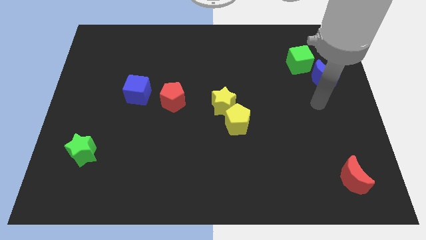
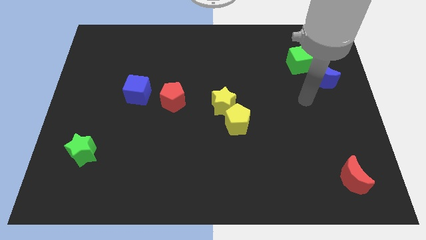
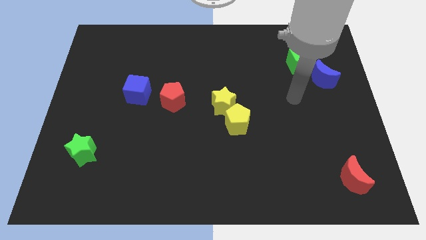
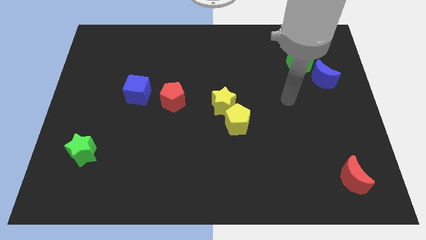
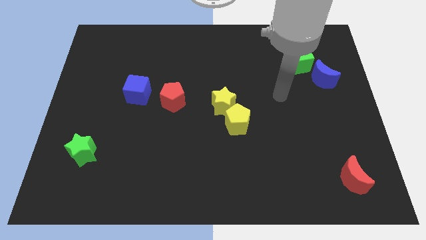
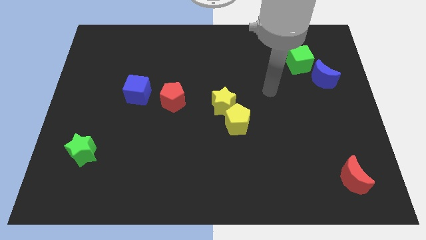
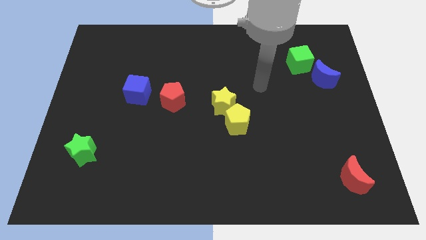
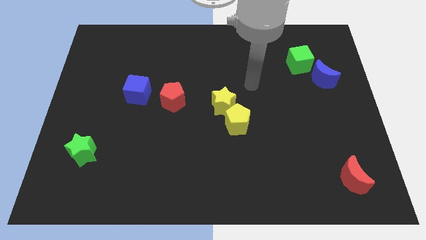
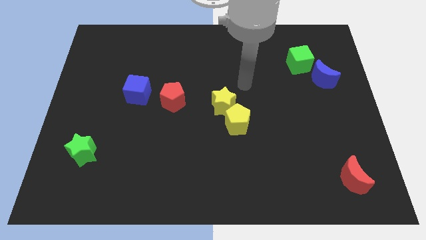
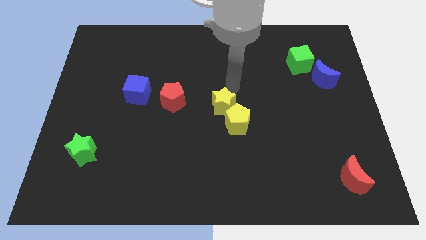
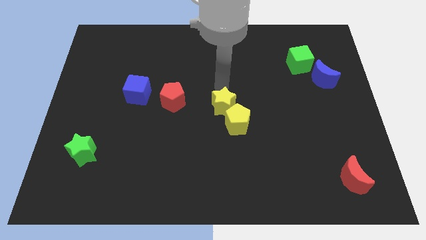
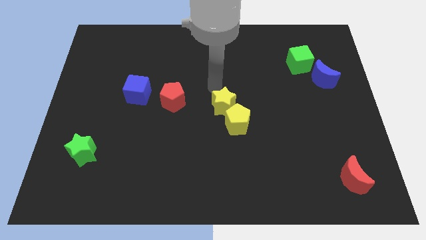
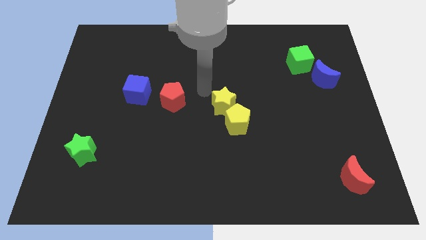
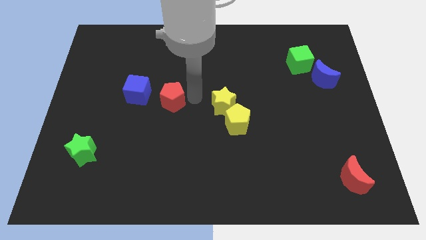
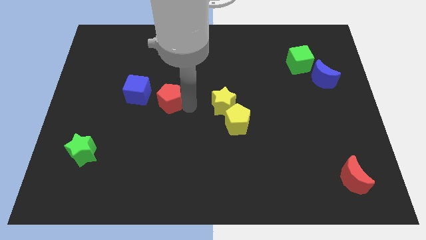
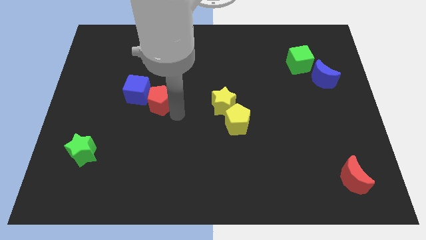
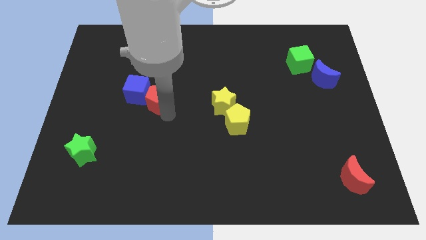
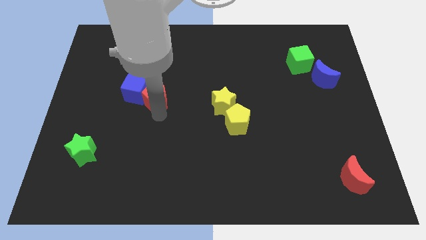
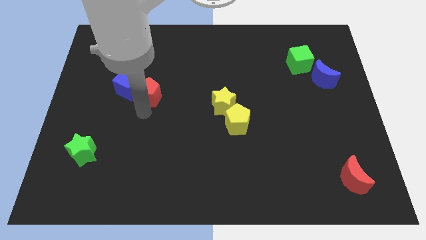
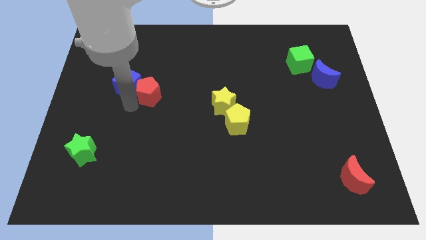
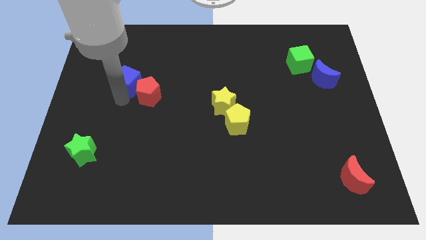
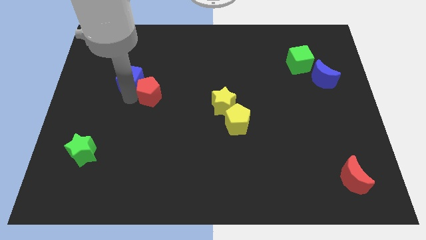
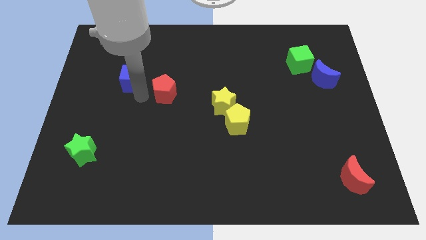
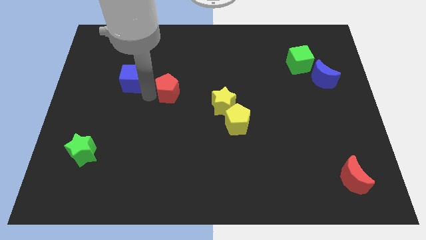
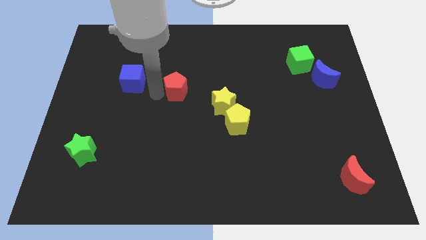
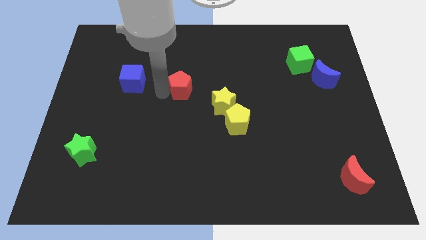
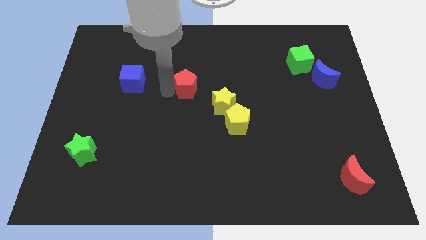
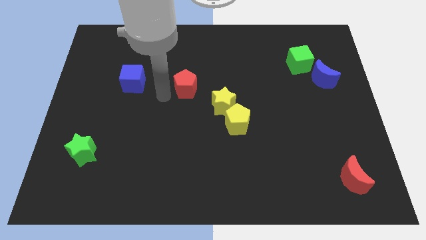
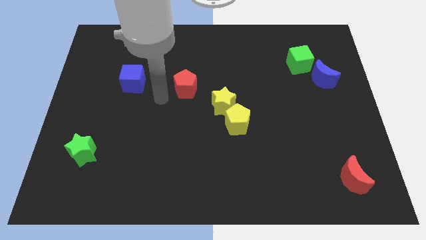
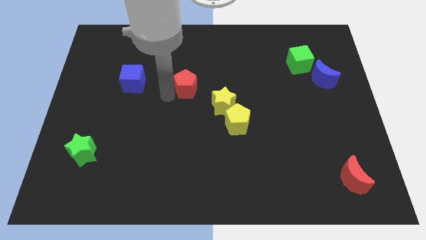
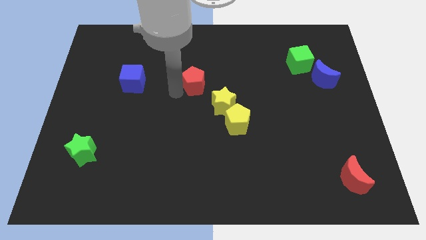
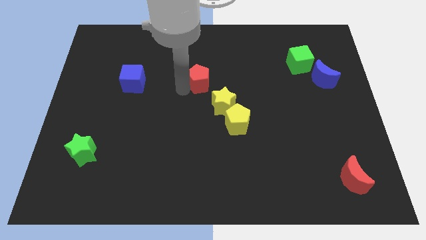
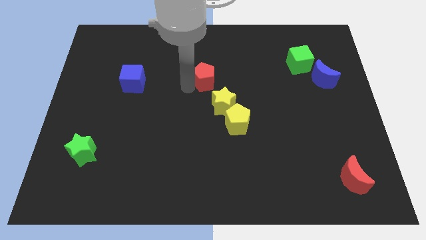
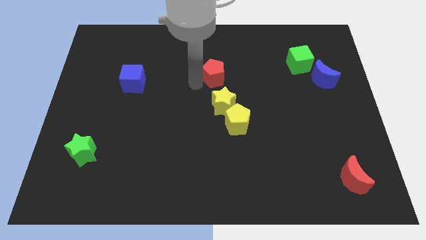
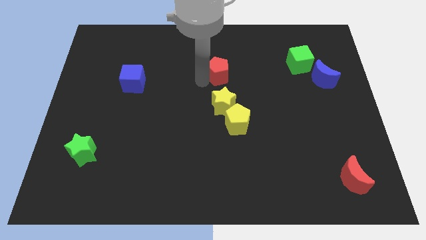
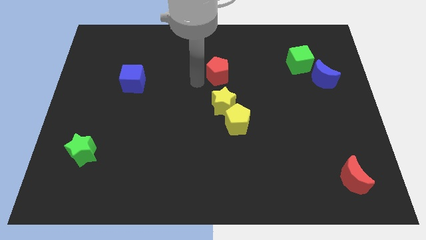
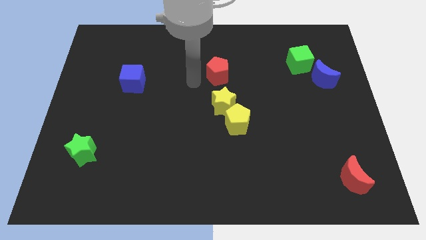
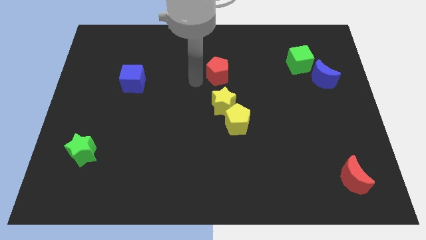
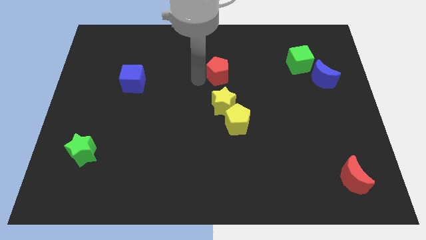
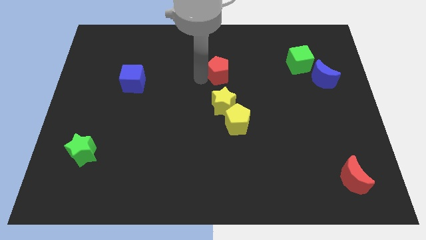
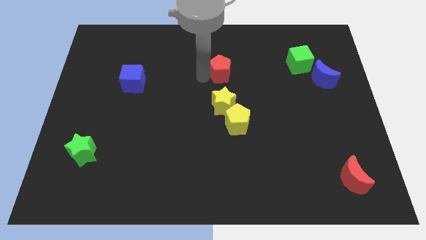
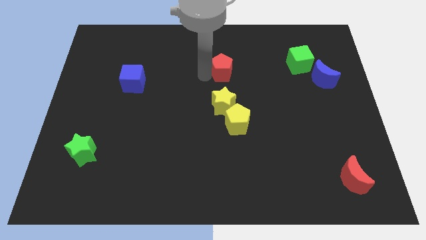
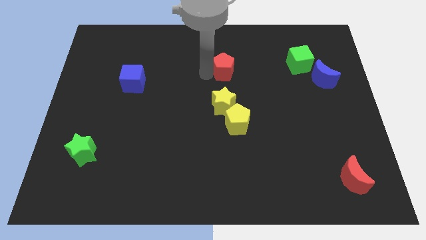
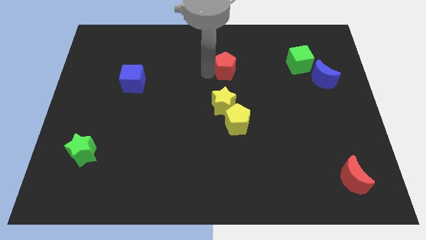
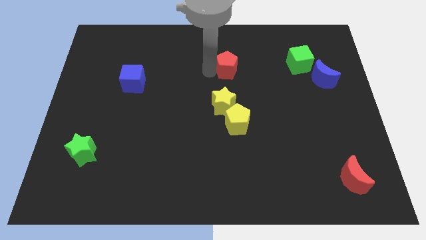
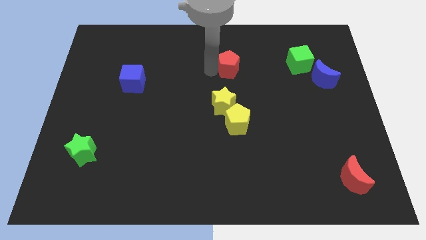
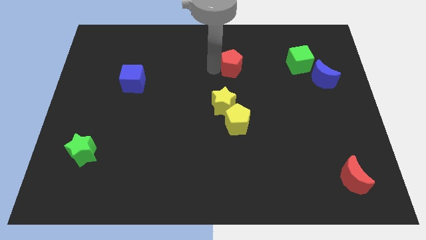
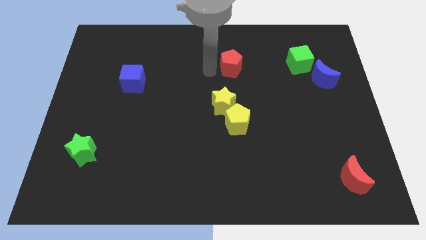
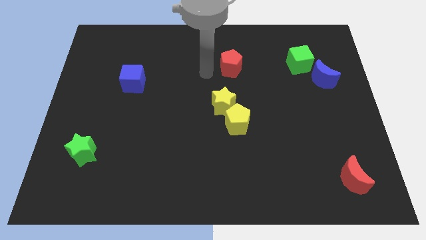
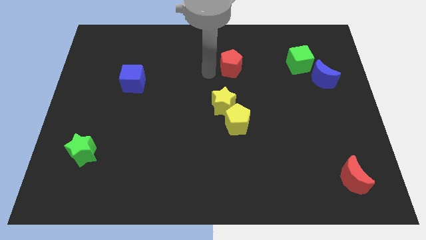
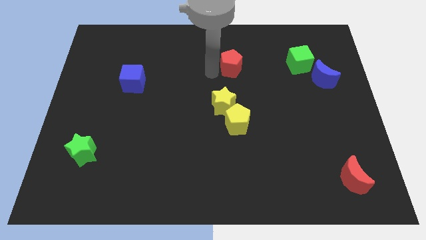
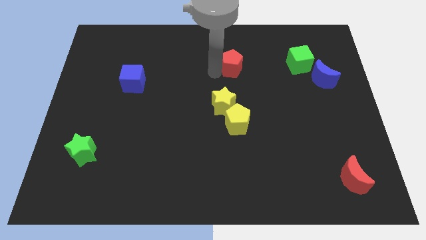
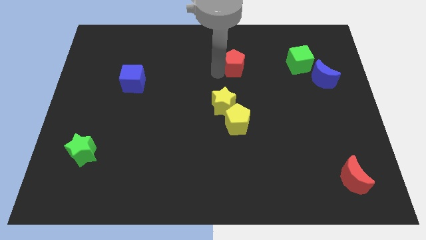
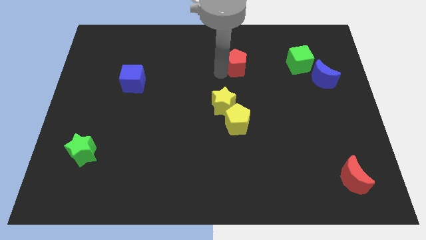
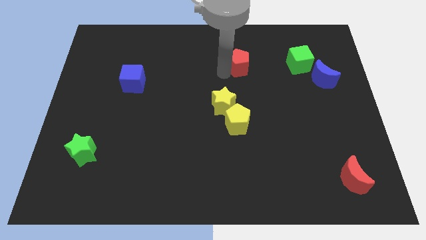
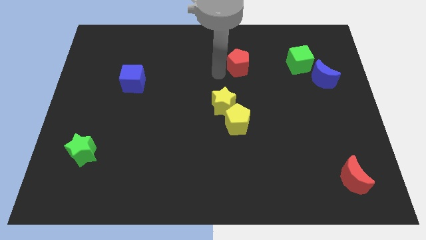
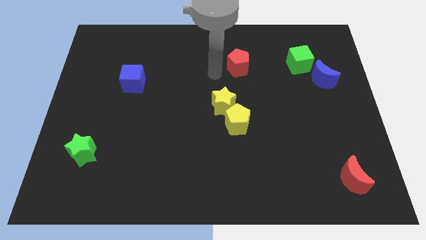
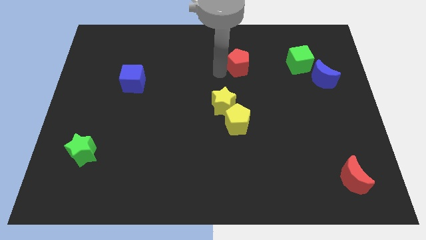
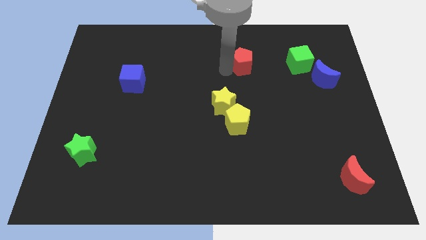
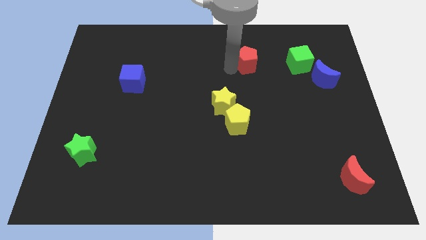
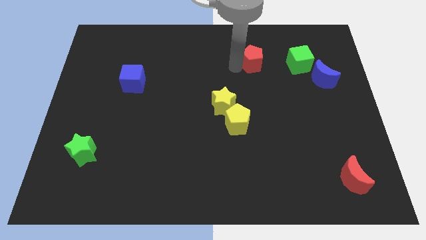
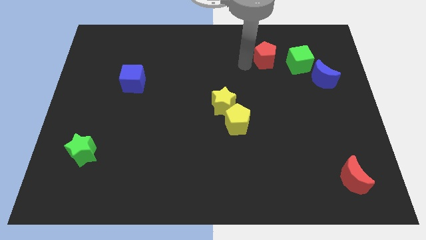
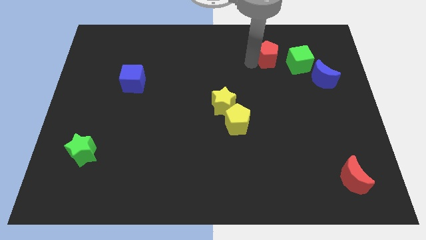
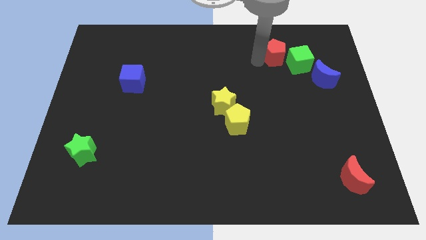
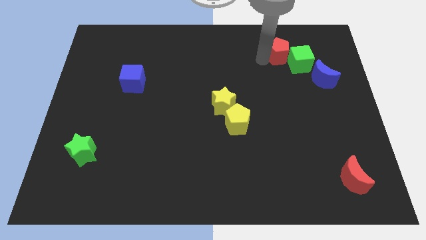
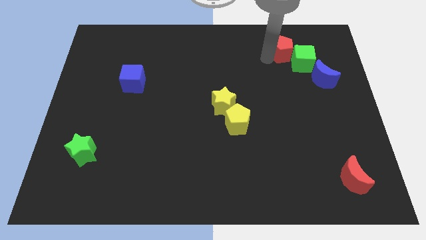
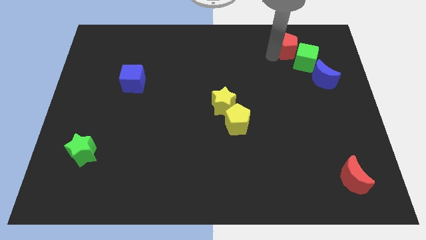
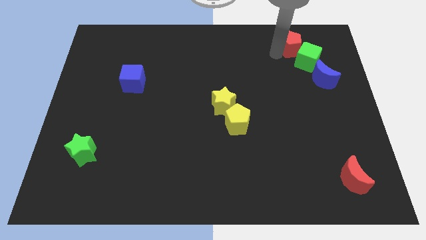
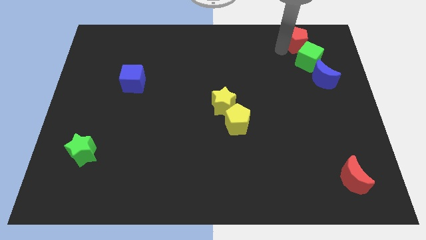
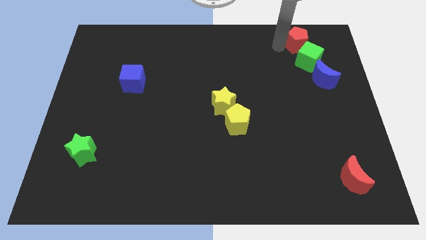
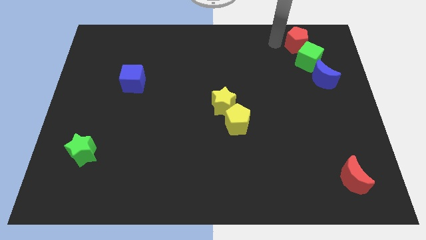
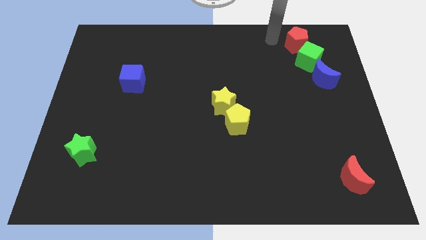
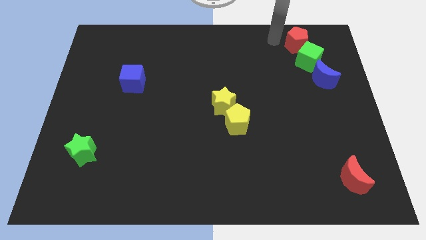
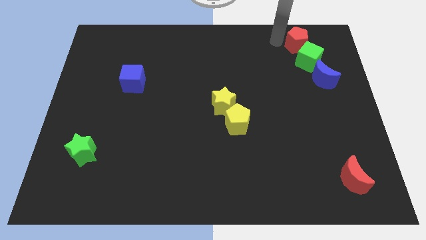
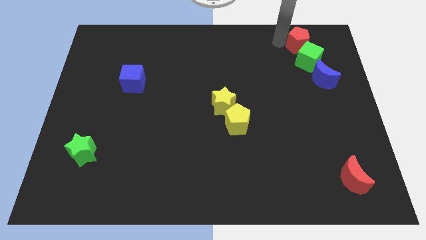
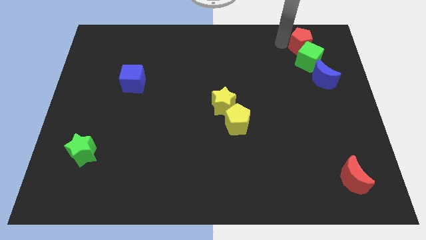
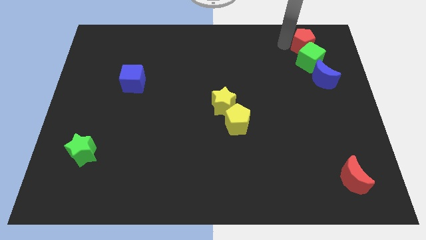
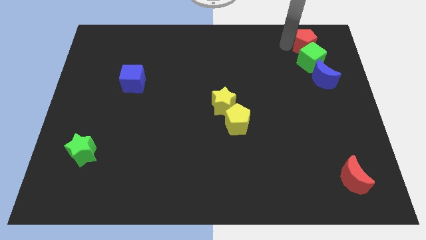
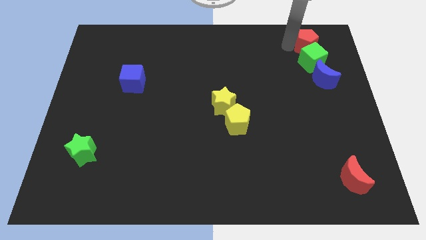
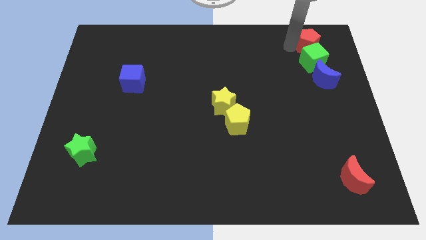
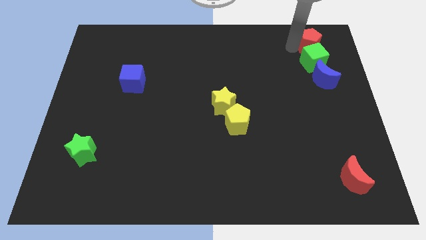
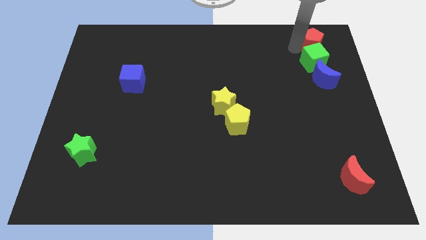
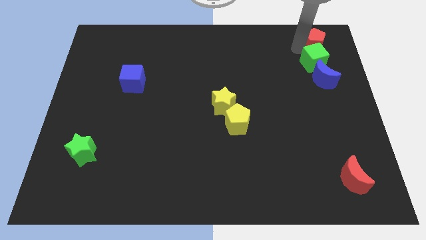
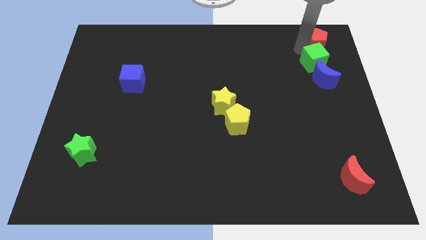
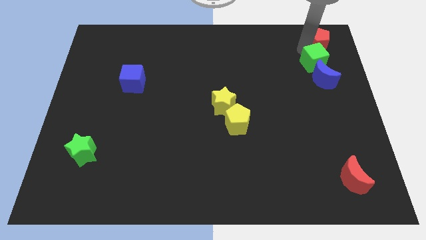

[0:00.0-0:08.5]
put the red pentagon to the top right of the board
